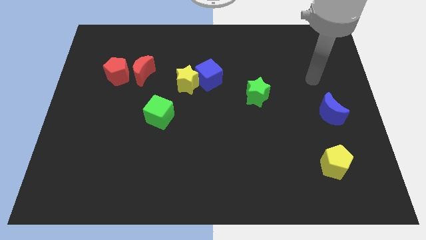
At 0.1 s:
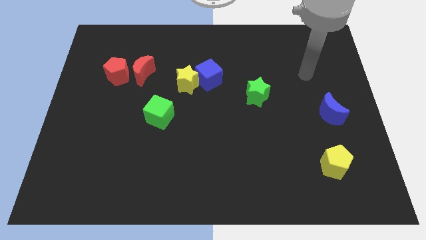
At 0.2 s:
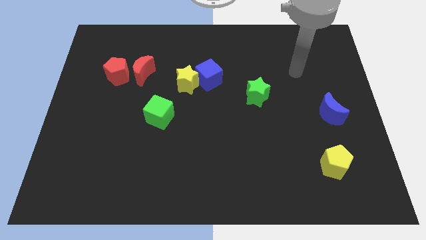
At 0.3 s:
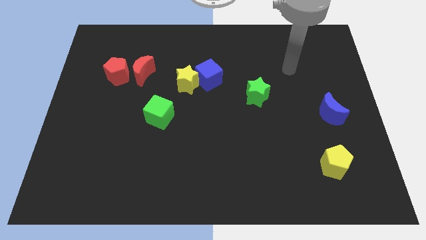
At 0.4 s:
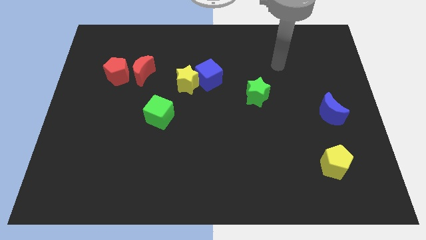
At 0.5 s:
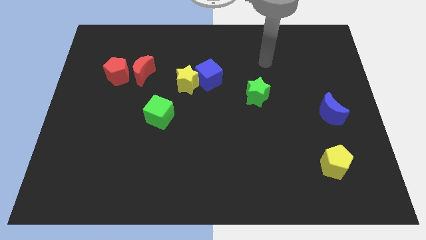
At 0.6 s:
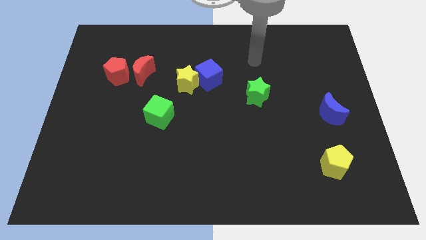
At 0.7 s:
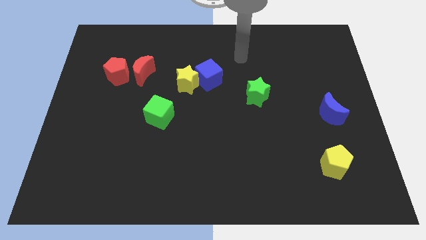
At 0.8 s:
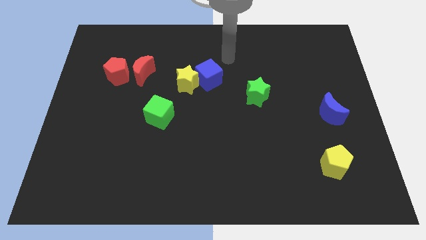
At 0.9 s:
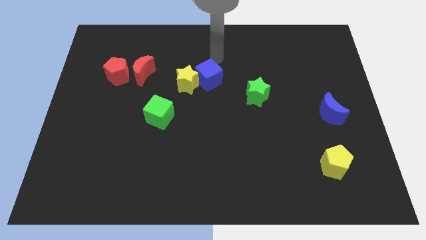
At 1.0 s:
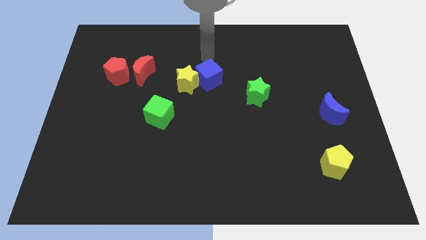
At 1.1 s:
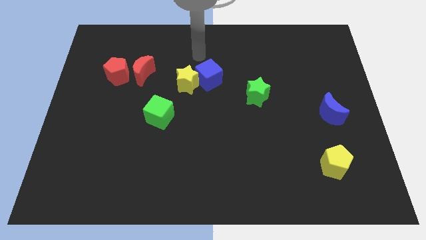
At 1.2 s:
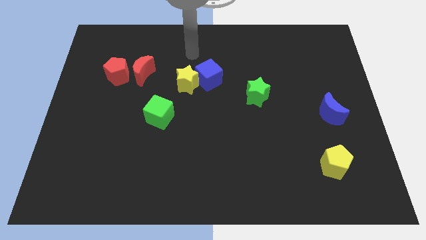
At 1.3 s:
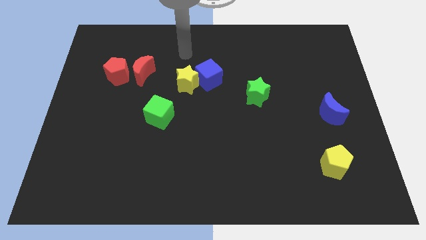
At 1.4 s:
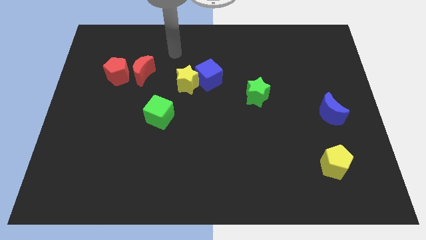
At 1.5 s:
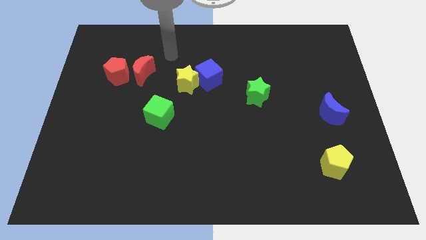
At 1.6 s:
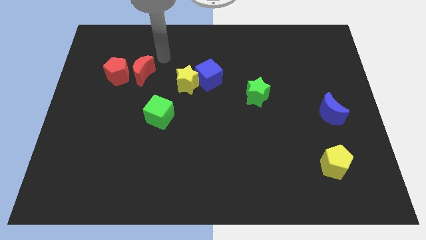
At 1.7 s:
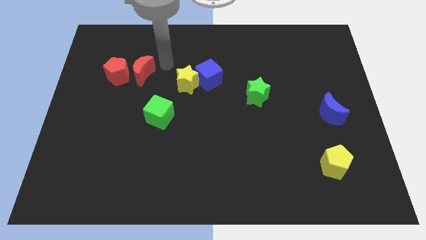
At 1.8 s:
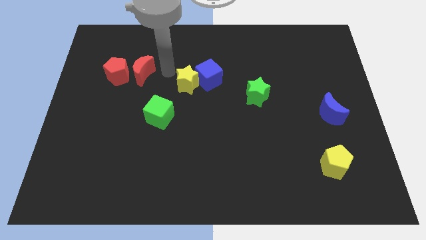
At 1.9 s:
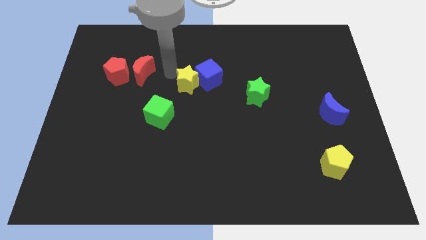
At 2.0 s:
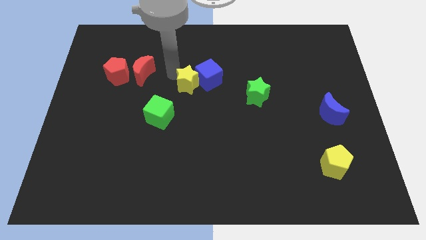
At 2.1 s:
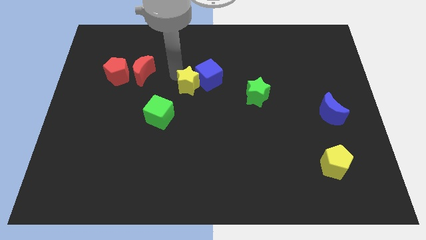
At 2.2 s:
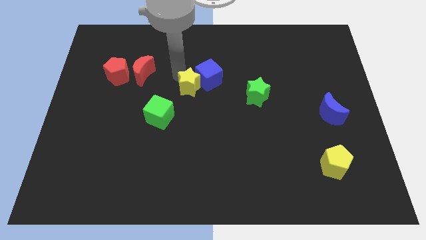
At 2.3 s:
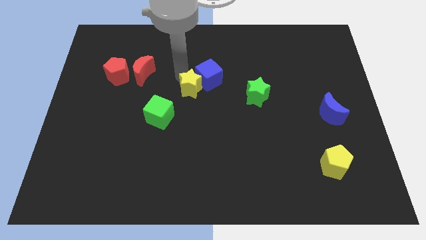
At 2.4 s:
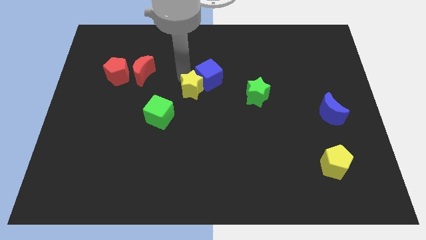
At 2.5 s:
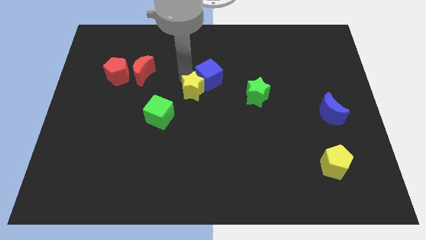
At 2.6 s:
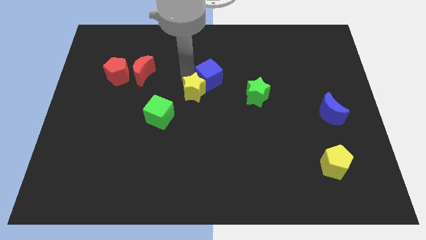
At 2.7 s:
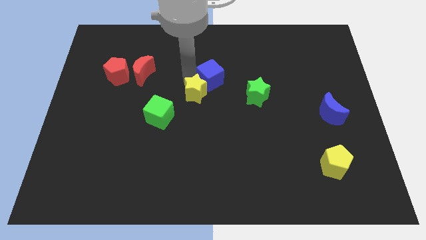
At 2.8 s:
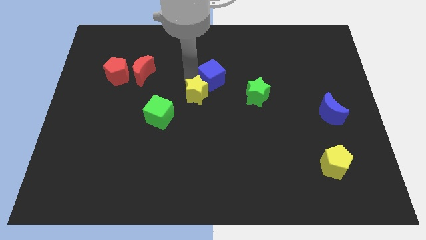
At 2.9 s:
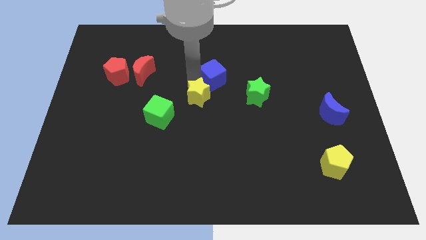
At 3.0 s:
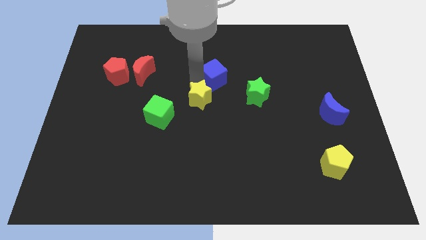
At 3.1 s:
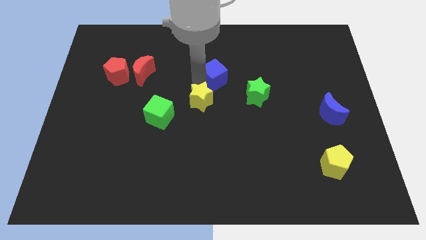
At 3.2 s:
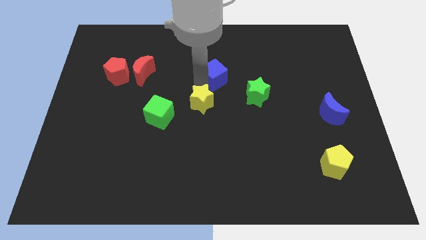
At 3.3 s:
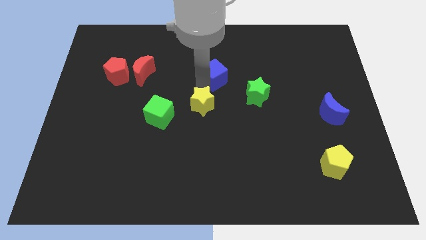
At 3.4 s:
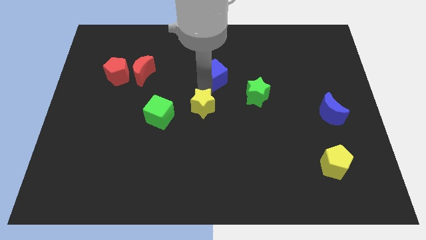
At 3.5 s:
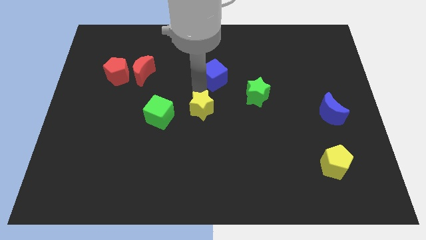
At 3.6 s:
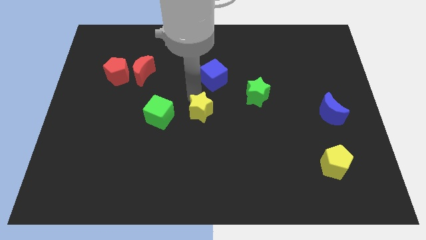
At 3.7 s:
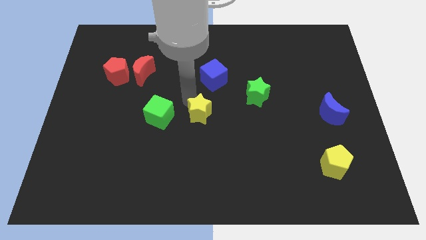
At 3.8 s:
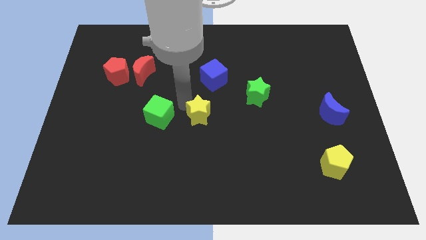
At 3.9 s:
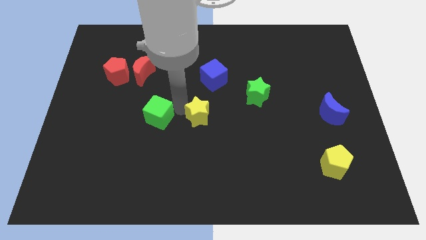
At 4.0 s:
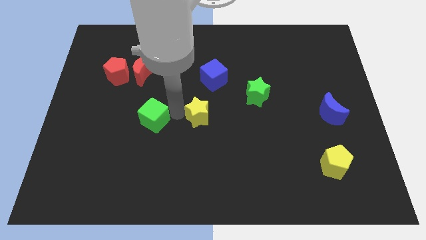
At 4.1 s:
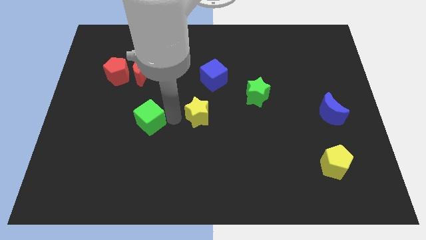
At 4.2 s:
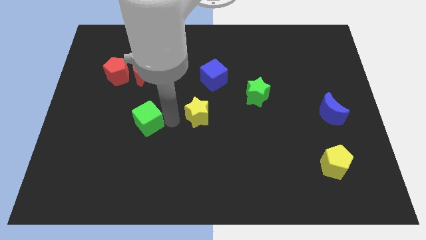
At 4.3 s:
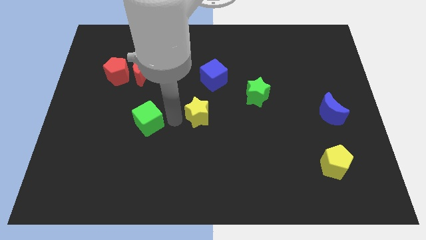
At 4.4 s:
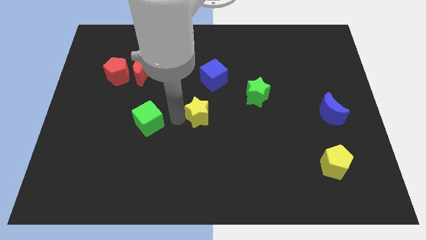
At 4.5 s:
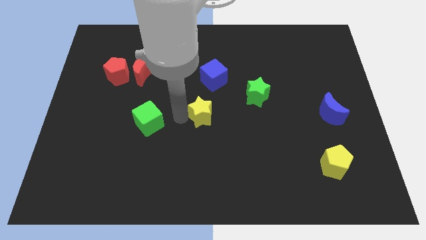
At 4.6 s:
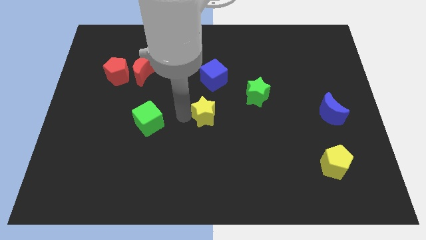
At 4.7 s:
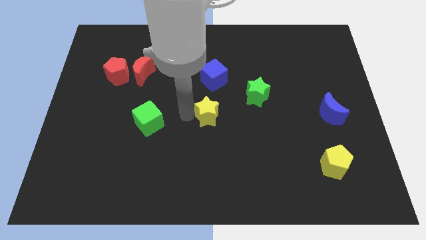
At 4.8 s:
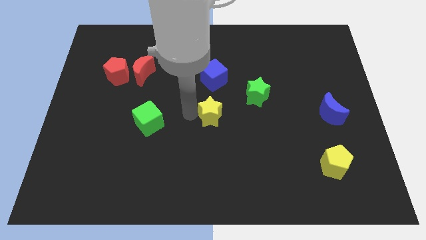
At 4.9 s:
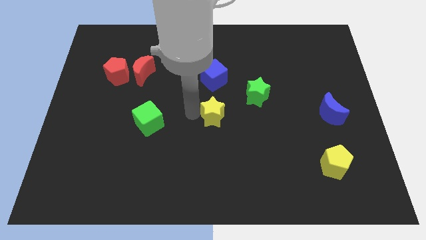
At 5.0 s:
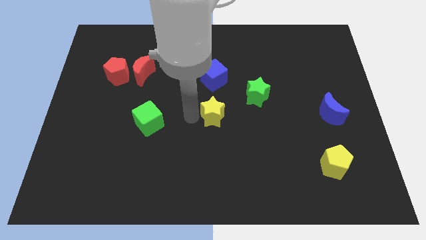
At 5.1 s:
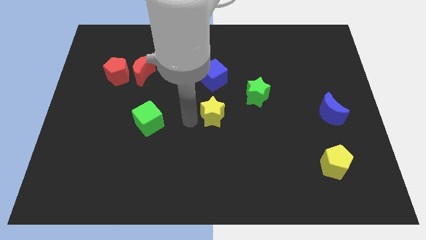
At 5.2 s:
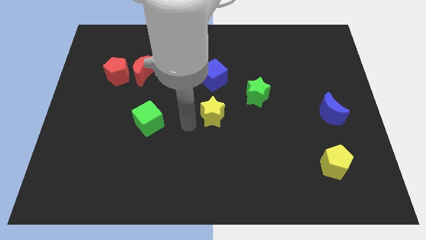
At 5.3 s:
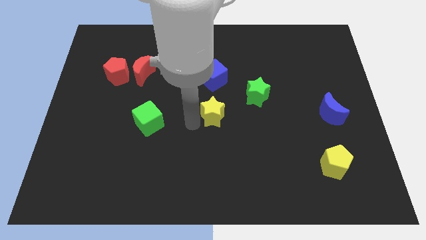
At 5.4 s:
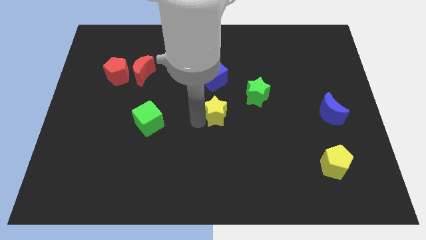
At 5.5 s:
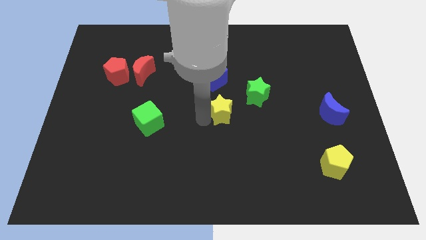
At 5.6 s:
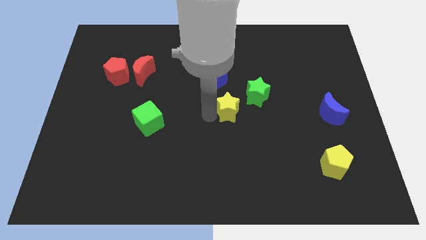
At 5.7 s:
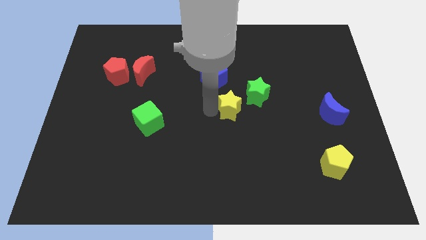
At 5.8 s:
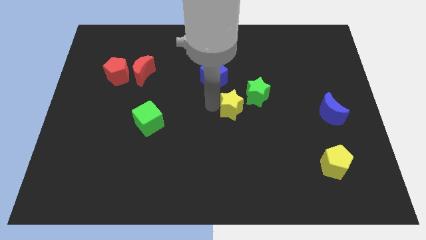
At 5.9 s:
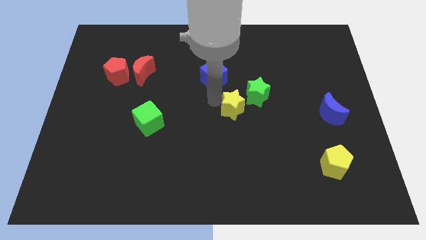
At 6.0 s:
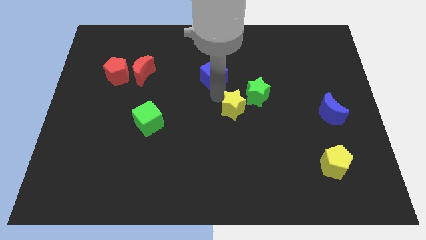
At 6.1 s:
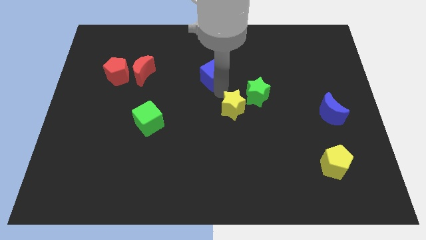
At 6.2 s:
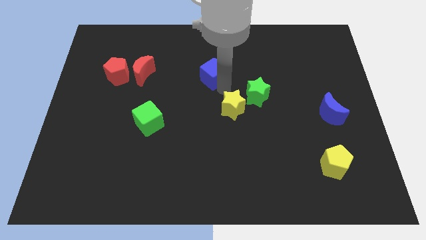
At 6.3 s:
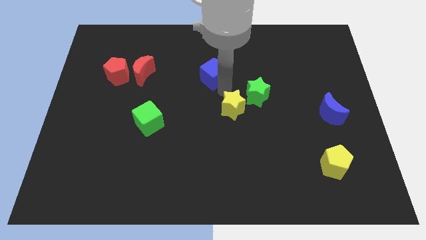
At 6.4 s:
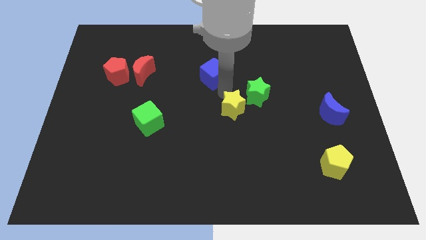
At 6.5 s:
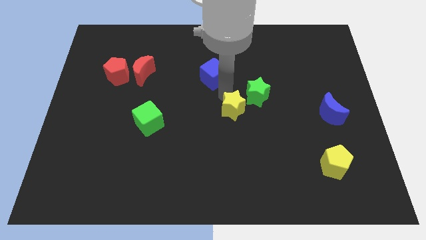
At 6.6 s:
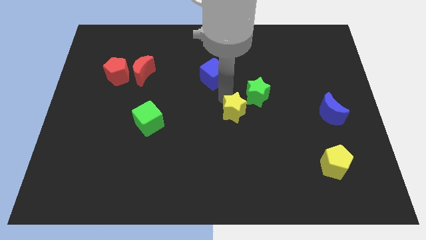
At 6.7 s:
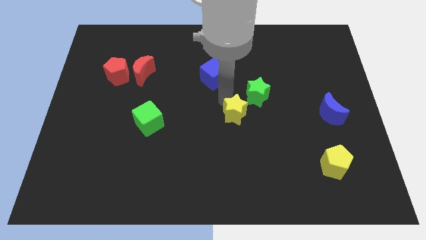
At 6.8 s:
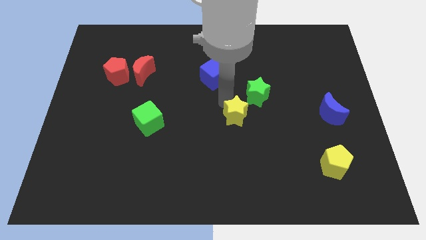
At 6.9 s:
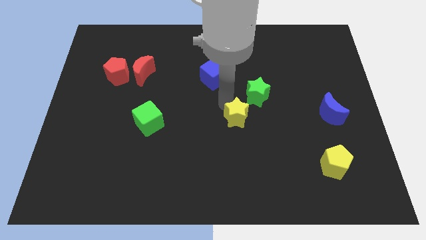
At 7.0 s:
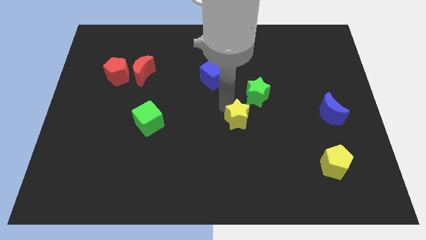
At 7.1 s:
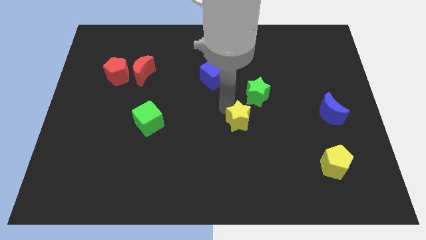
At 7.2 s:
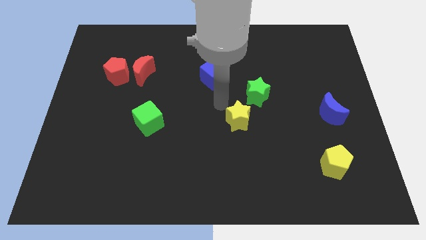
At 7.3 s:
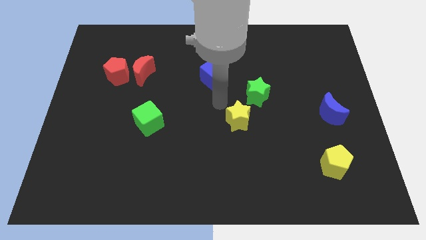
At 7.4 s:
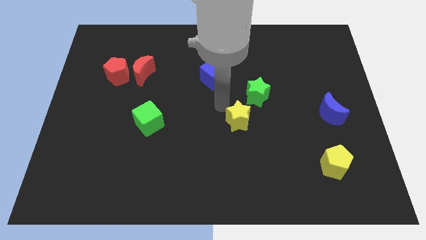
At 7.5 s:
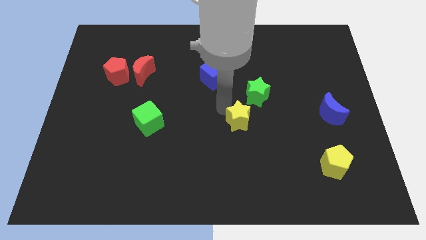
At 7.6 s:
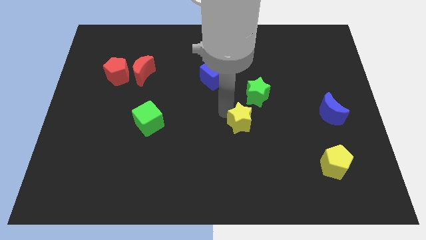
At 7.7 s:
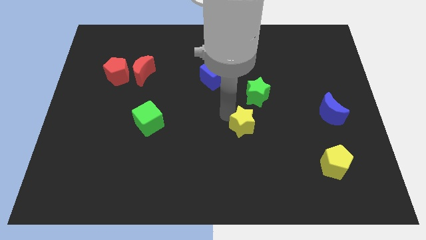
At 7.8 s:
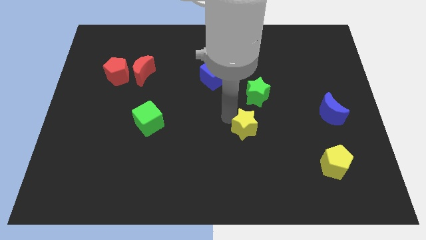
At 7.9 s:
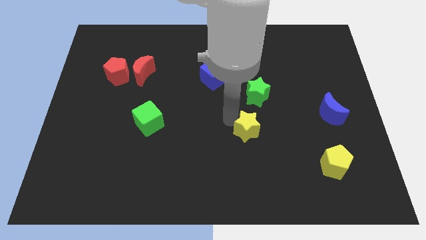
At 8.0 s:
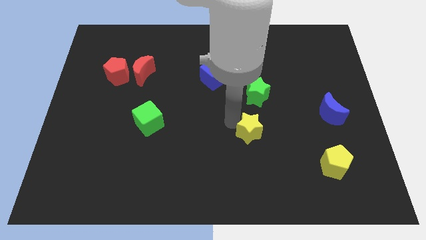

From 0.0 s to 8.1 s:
push the yellow star down and to the right
